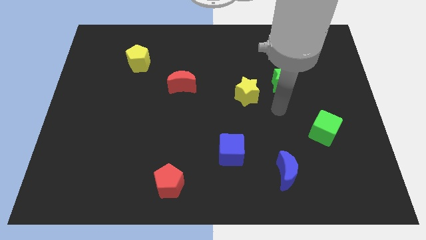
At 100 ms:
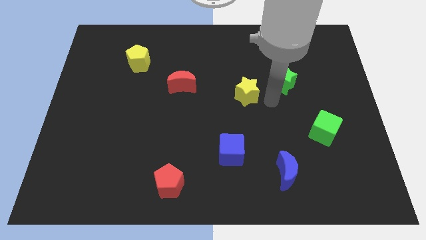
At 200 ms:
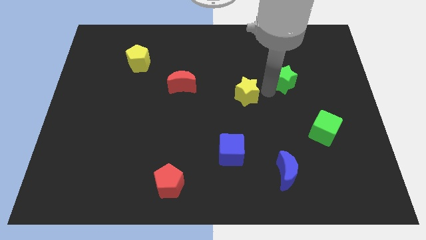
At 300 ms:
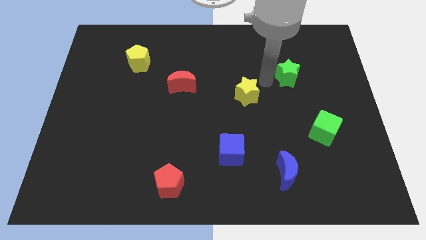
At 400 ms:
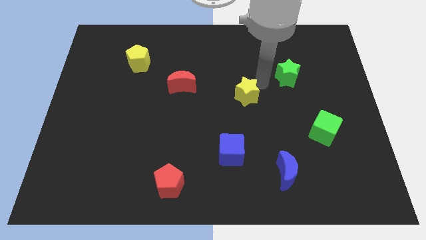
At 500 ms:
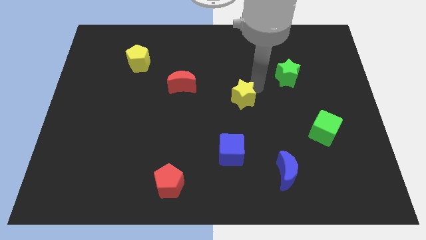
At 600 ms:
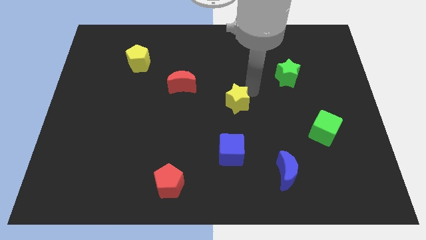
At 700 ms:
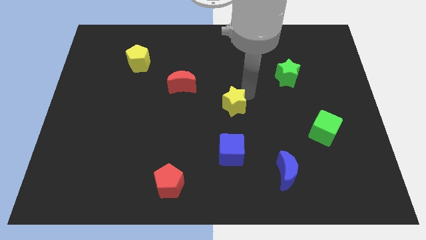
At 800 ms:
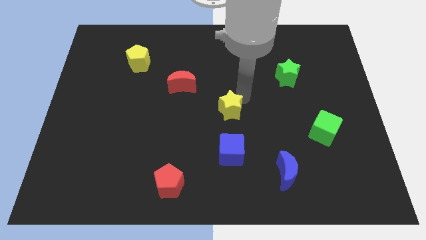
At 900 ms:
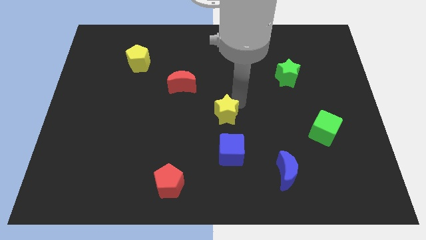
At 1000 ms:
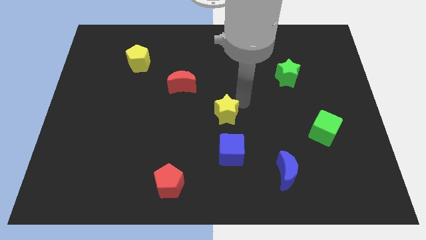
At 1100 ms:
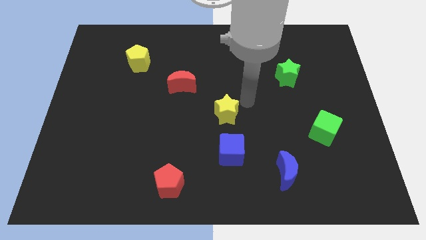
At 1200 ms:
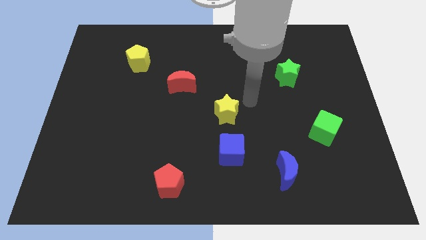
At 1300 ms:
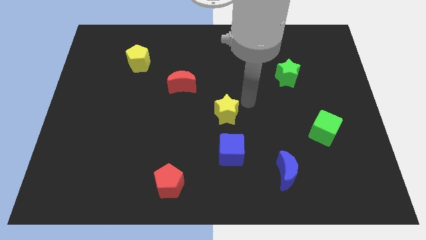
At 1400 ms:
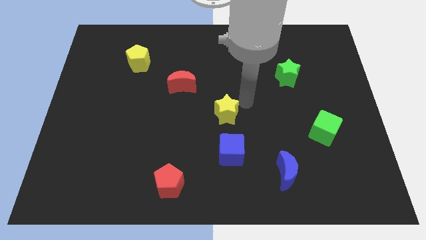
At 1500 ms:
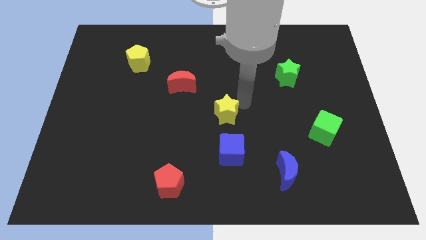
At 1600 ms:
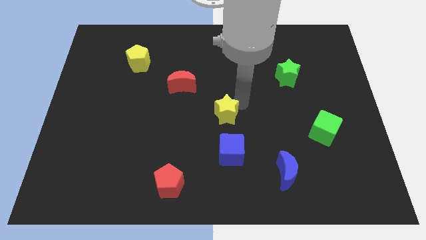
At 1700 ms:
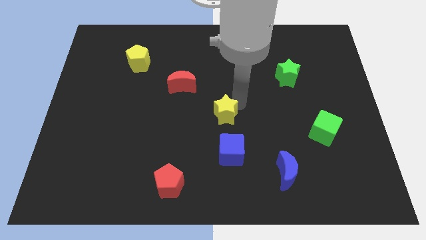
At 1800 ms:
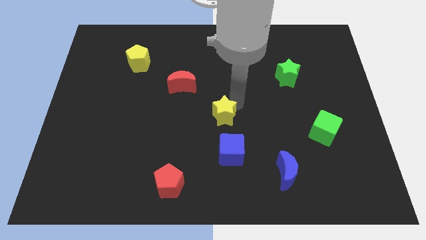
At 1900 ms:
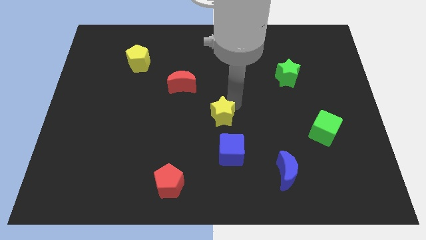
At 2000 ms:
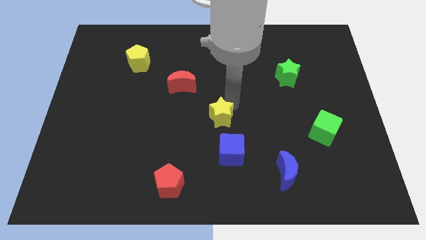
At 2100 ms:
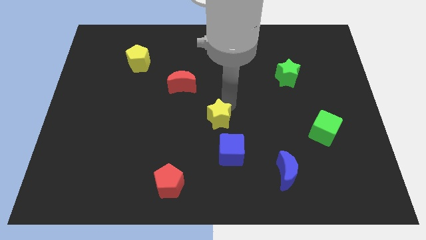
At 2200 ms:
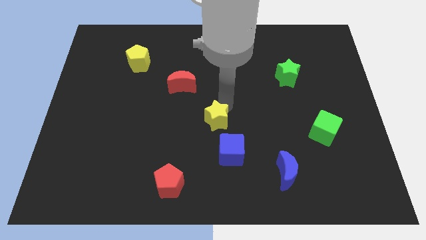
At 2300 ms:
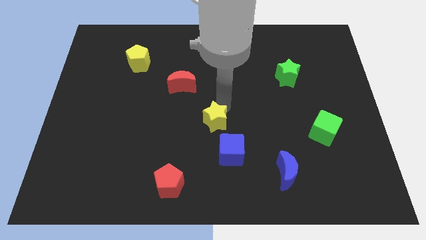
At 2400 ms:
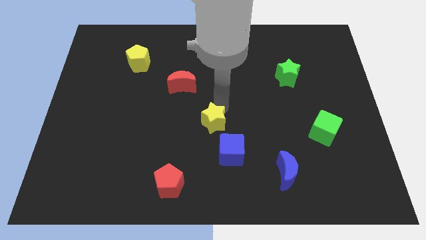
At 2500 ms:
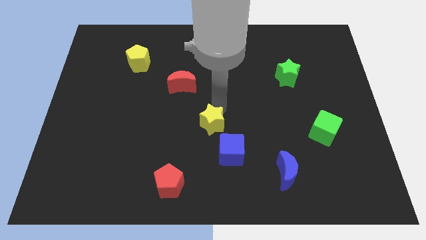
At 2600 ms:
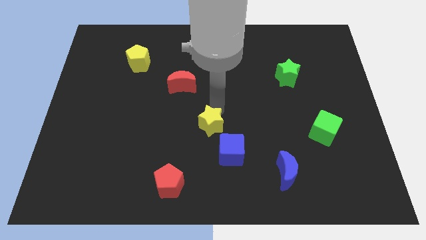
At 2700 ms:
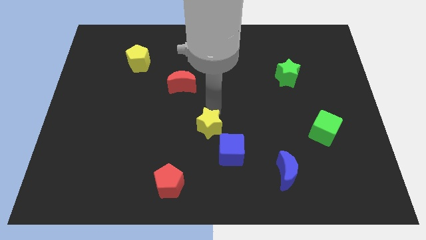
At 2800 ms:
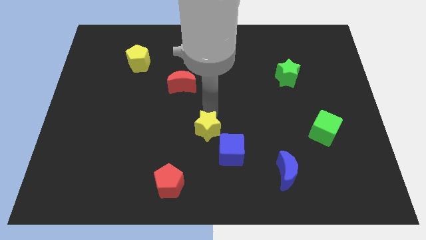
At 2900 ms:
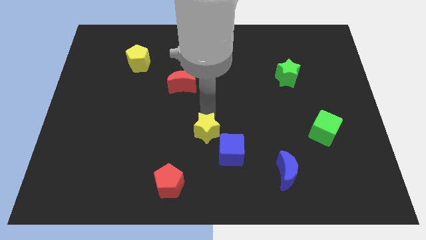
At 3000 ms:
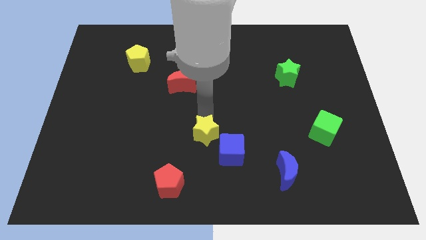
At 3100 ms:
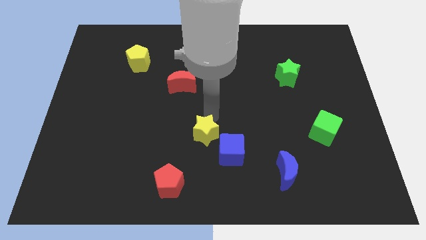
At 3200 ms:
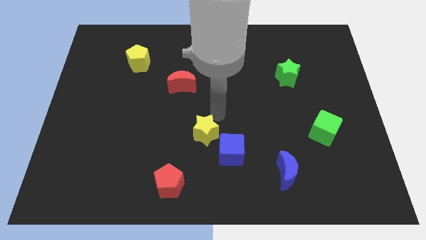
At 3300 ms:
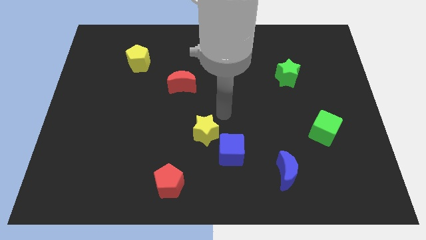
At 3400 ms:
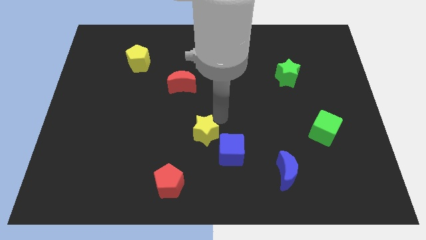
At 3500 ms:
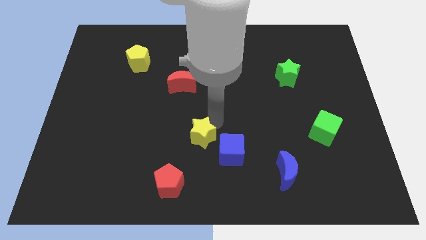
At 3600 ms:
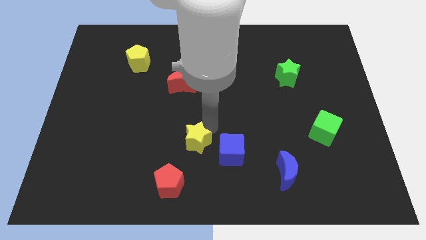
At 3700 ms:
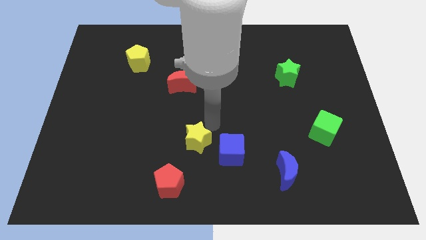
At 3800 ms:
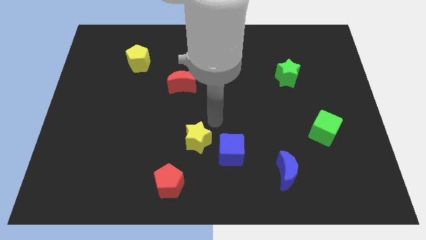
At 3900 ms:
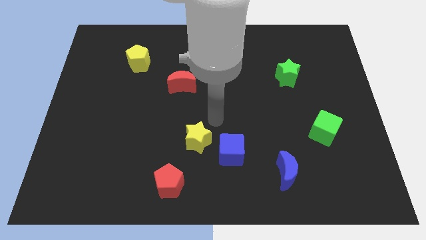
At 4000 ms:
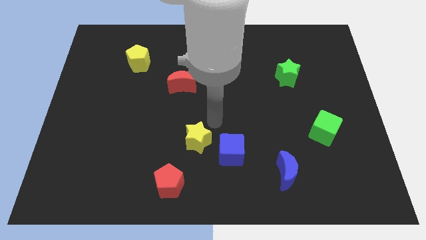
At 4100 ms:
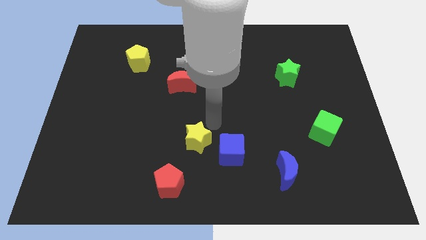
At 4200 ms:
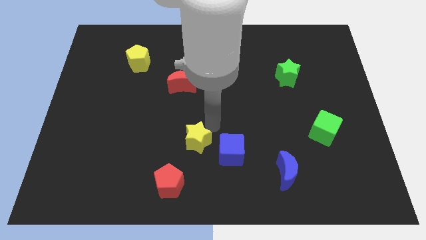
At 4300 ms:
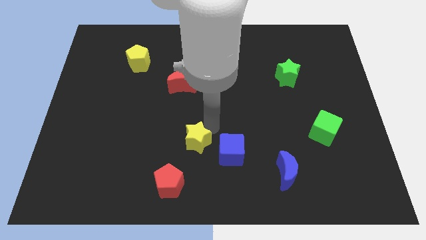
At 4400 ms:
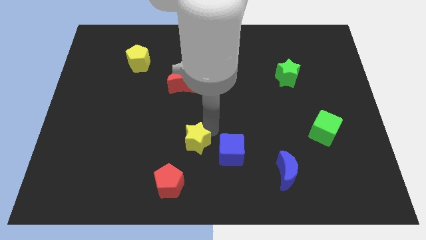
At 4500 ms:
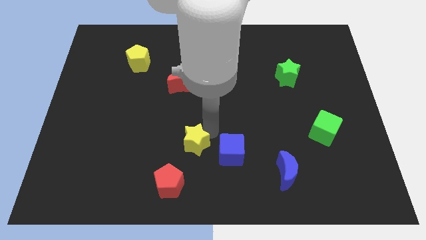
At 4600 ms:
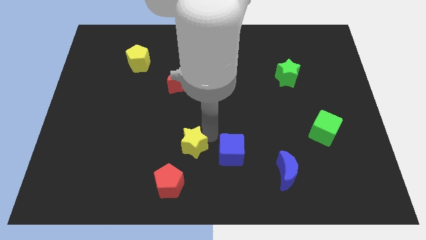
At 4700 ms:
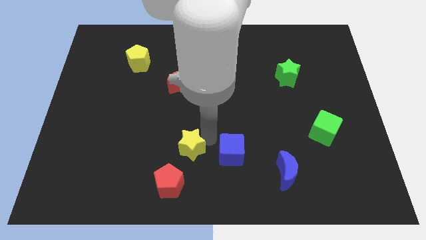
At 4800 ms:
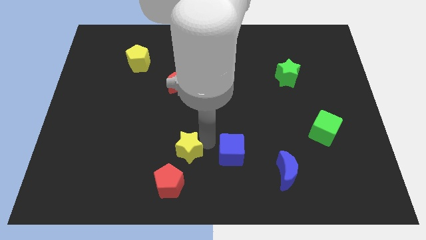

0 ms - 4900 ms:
move the yellow star diagonally down and to the left

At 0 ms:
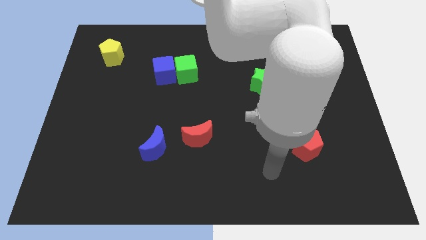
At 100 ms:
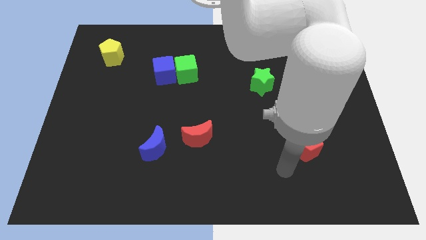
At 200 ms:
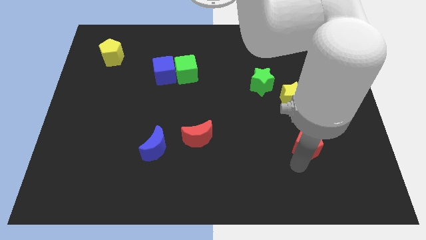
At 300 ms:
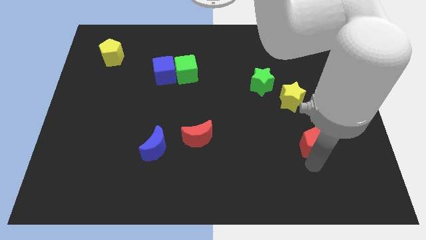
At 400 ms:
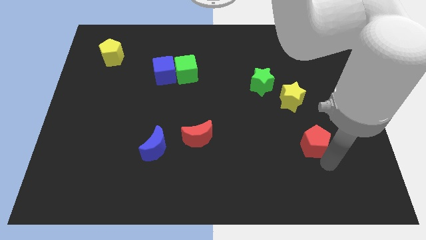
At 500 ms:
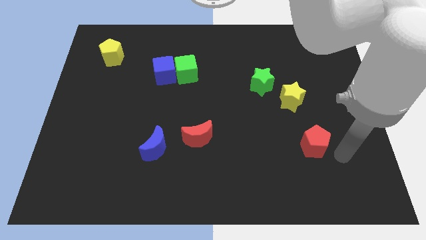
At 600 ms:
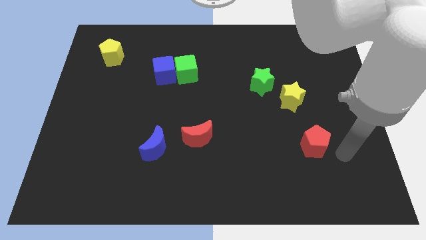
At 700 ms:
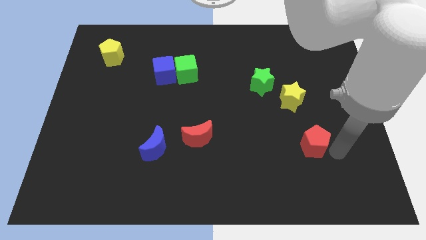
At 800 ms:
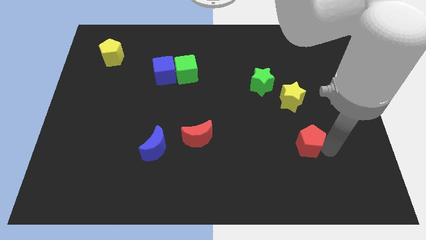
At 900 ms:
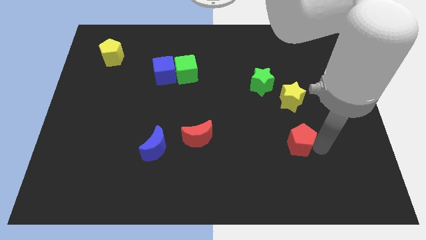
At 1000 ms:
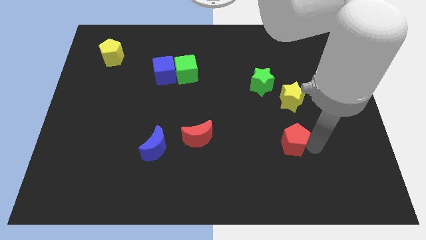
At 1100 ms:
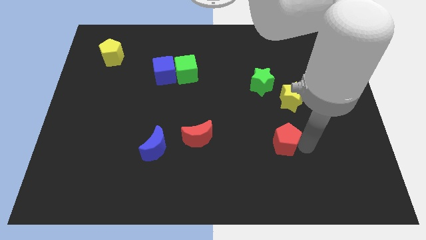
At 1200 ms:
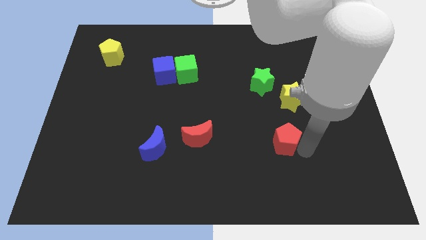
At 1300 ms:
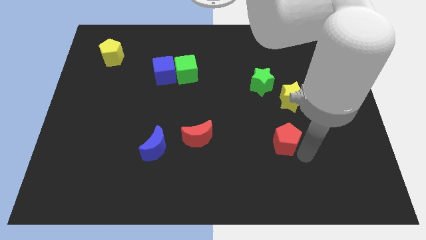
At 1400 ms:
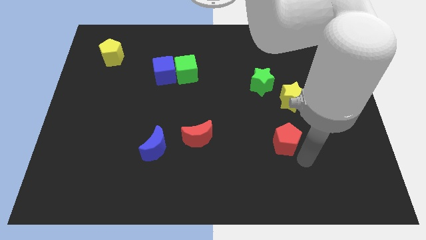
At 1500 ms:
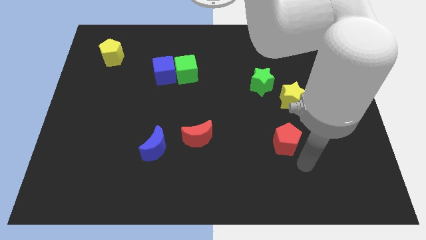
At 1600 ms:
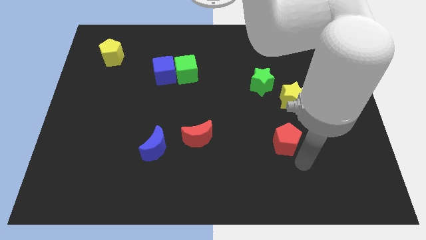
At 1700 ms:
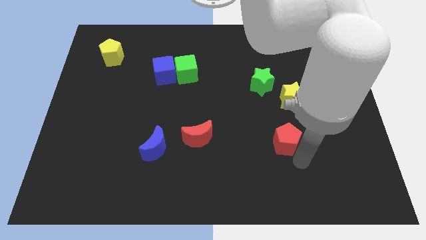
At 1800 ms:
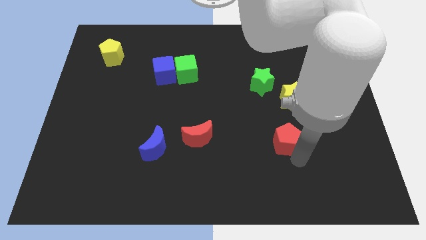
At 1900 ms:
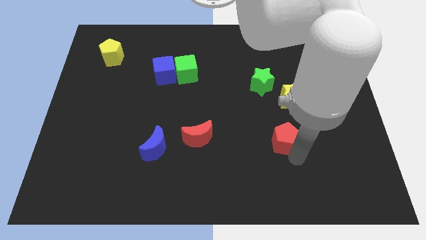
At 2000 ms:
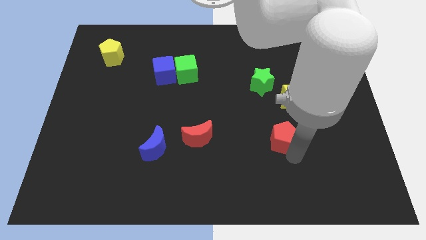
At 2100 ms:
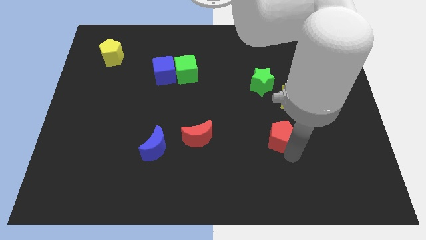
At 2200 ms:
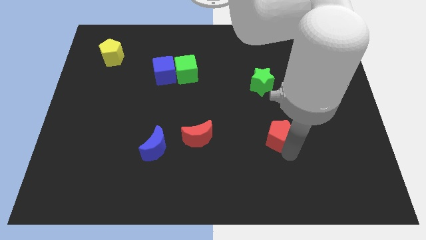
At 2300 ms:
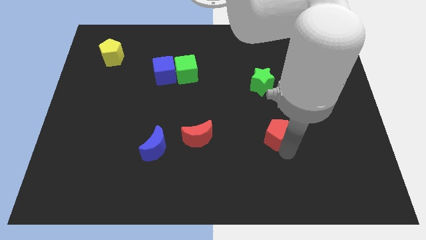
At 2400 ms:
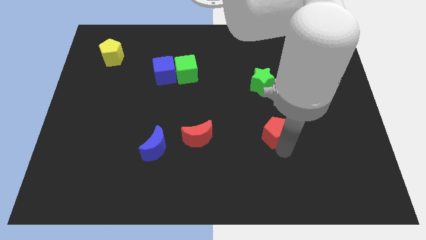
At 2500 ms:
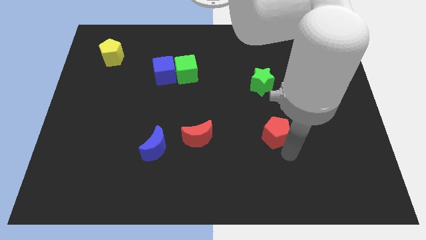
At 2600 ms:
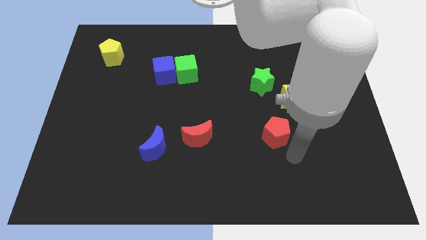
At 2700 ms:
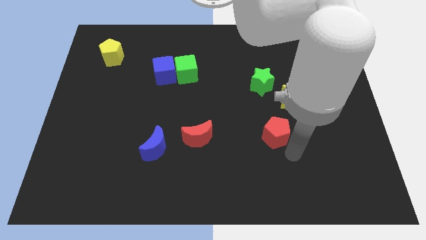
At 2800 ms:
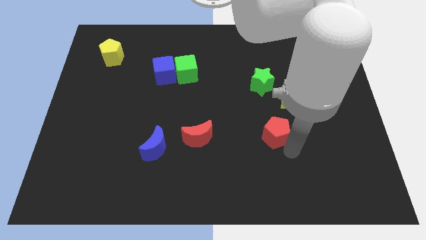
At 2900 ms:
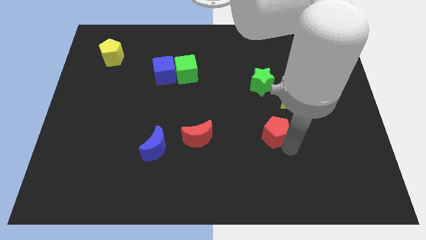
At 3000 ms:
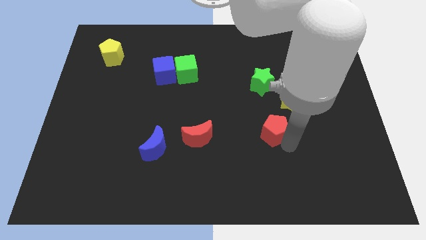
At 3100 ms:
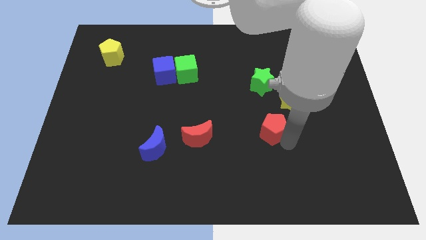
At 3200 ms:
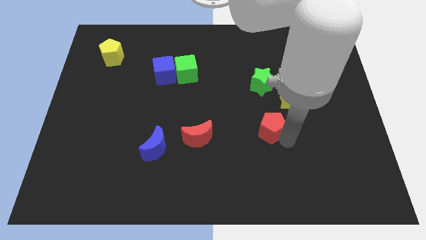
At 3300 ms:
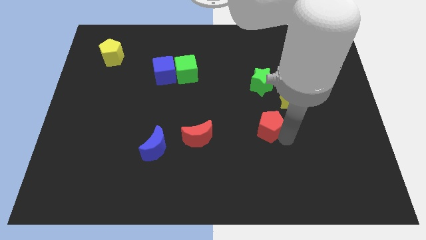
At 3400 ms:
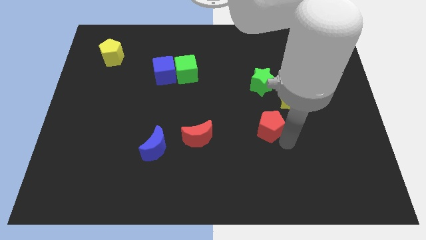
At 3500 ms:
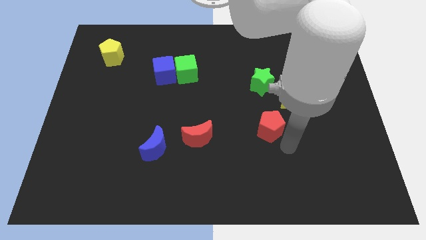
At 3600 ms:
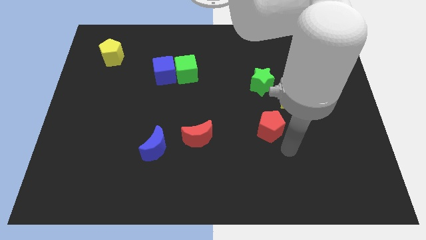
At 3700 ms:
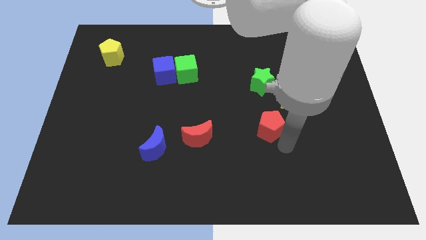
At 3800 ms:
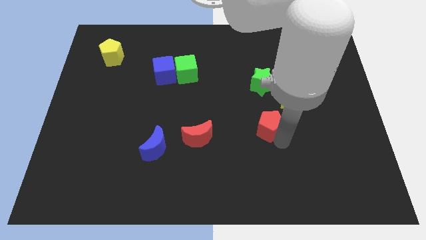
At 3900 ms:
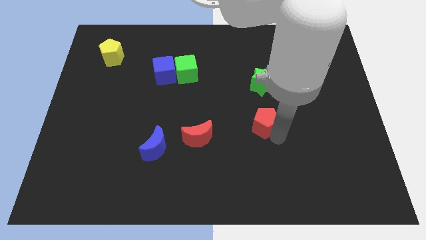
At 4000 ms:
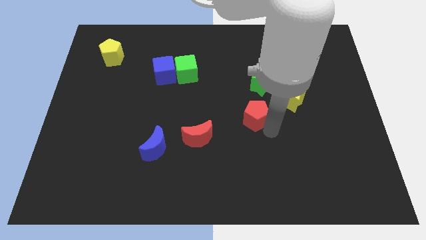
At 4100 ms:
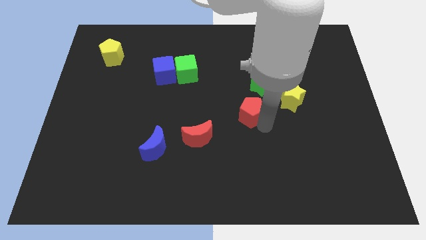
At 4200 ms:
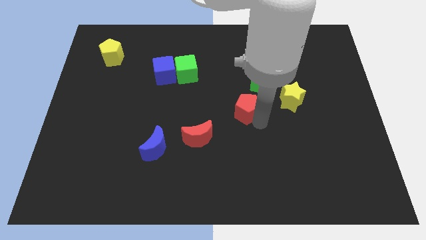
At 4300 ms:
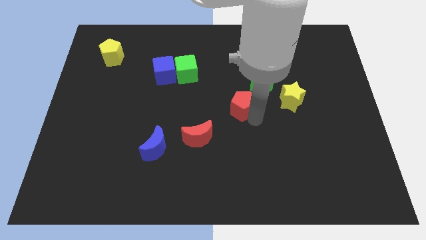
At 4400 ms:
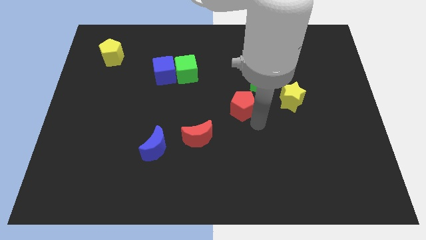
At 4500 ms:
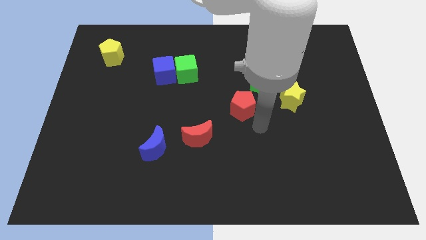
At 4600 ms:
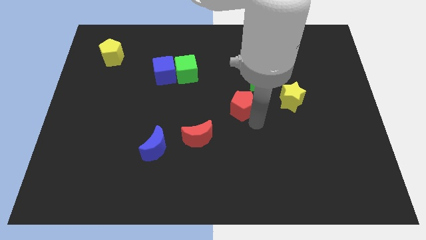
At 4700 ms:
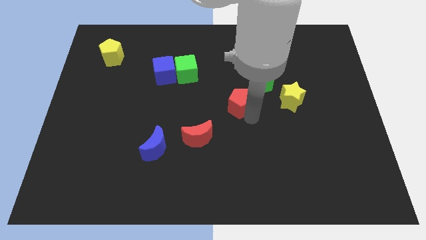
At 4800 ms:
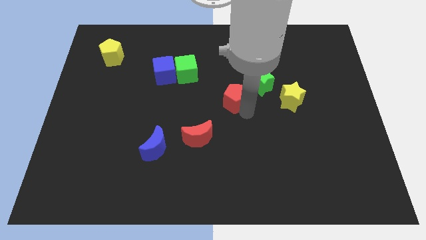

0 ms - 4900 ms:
move the red pentagon diagonally upwards and left
